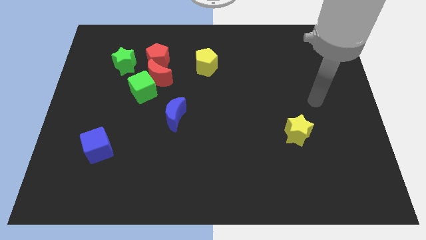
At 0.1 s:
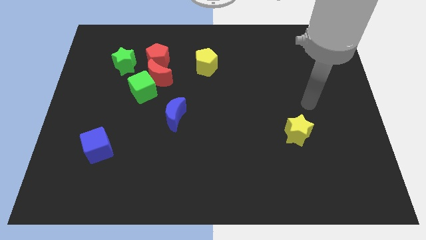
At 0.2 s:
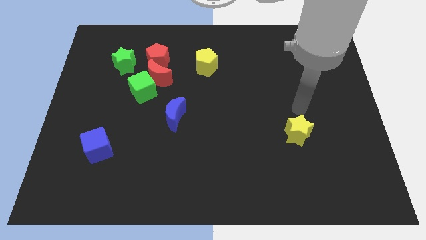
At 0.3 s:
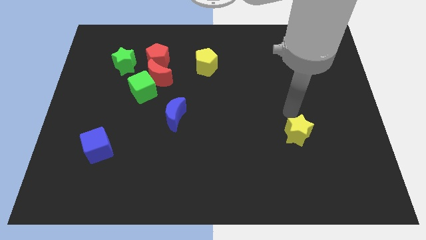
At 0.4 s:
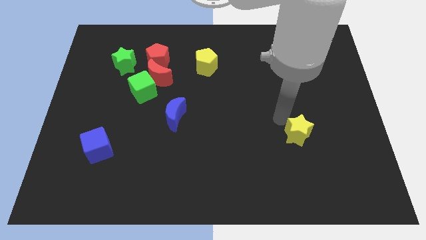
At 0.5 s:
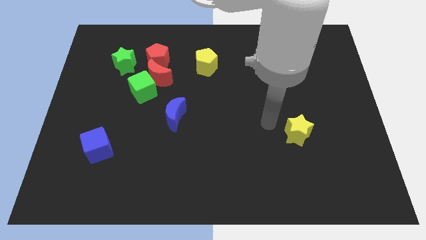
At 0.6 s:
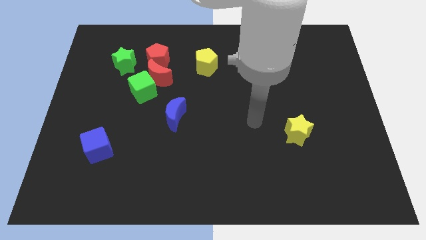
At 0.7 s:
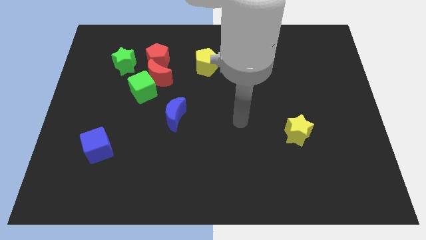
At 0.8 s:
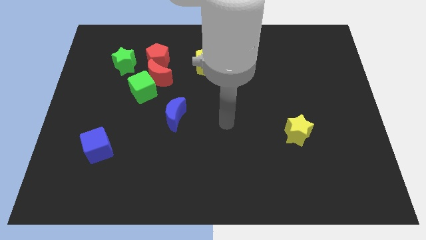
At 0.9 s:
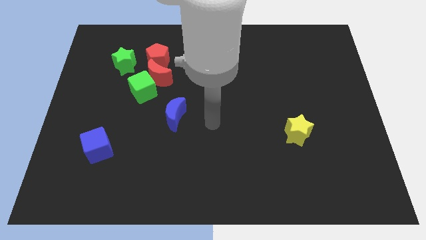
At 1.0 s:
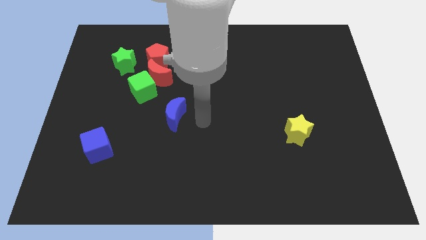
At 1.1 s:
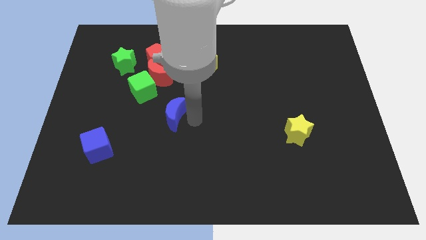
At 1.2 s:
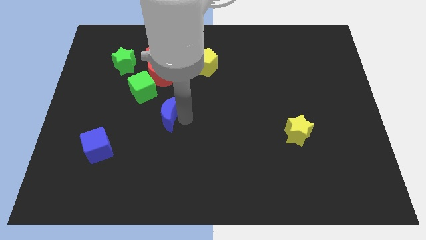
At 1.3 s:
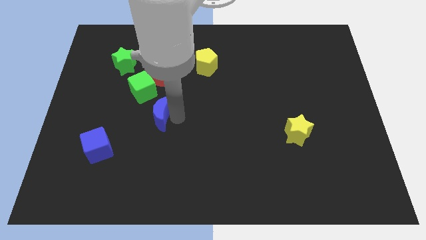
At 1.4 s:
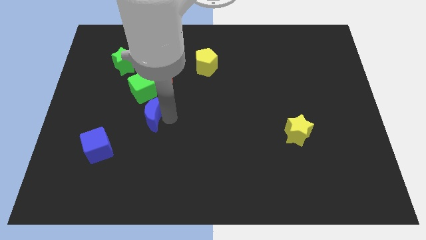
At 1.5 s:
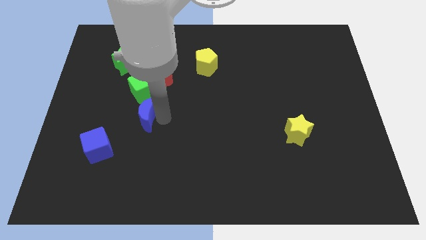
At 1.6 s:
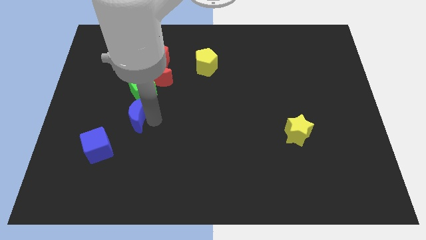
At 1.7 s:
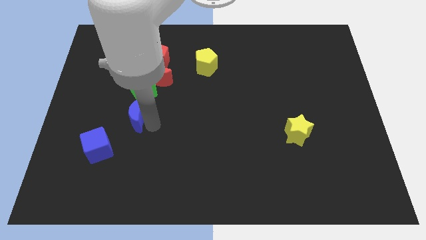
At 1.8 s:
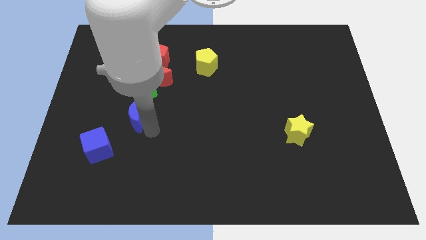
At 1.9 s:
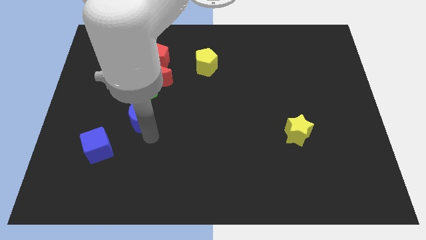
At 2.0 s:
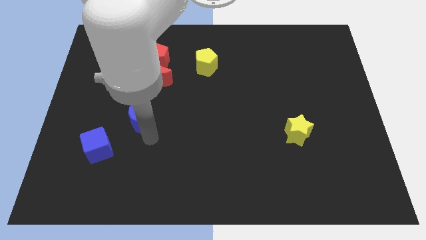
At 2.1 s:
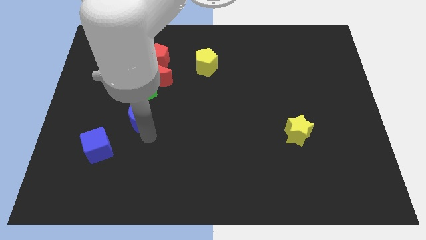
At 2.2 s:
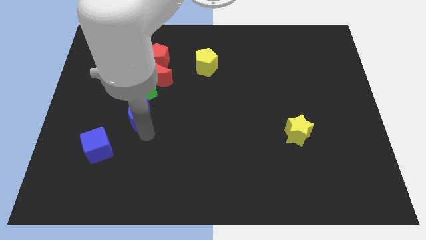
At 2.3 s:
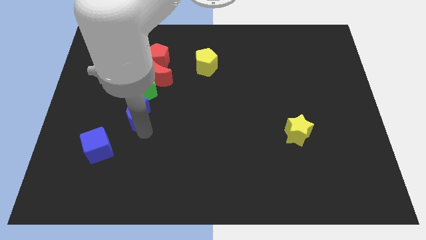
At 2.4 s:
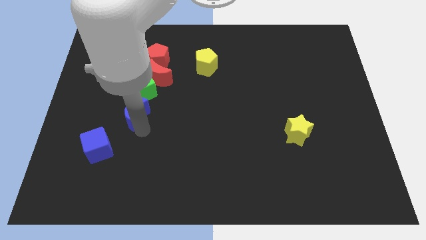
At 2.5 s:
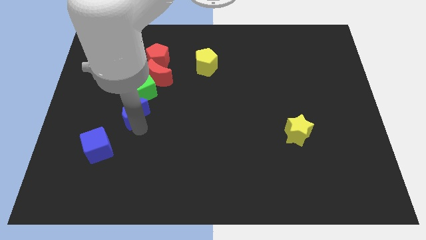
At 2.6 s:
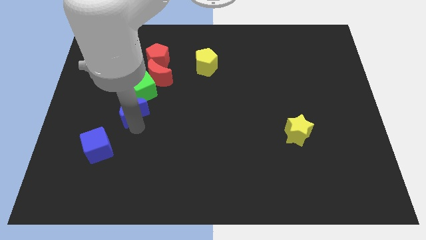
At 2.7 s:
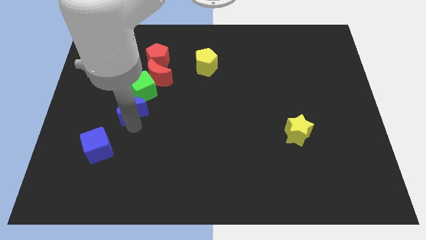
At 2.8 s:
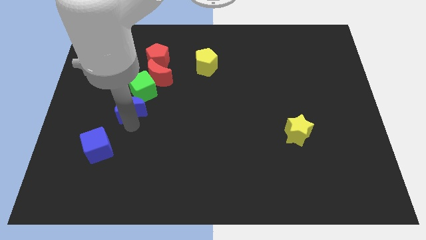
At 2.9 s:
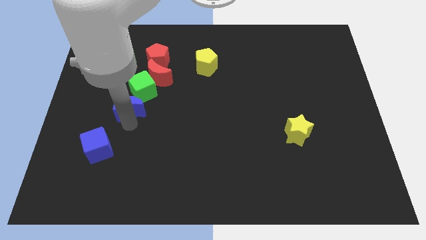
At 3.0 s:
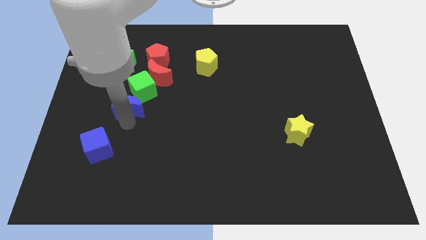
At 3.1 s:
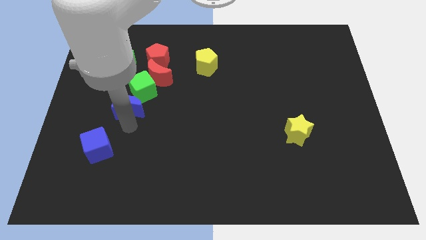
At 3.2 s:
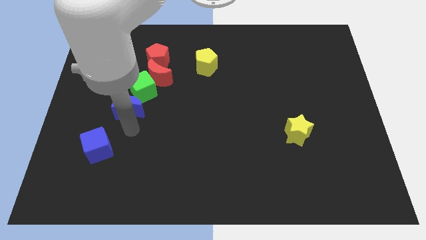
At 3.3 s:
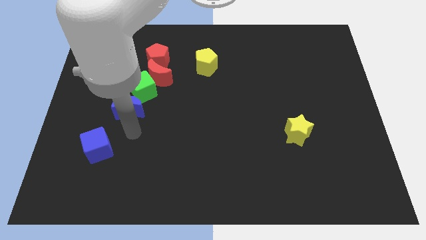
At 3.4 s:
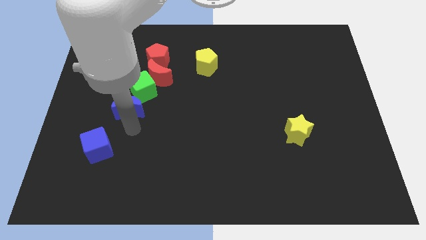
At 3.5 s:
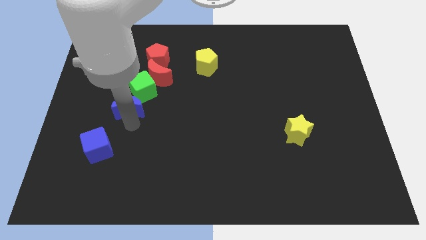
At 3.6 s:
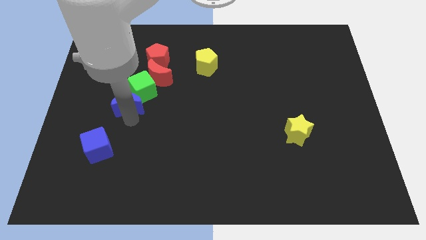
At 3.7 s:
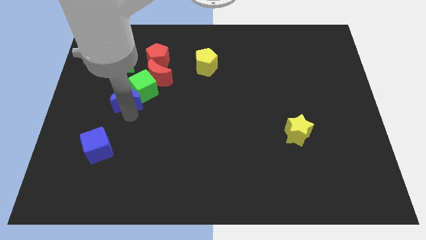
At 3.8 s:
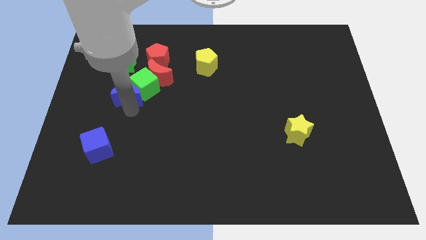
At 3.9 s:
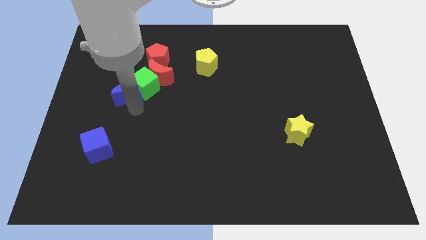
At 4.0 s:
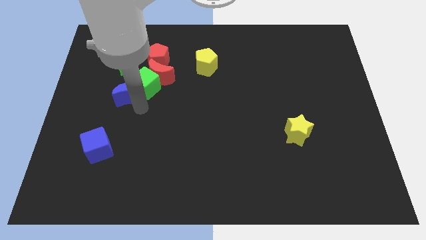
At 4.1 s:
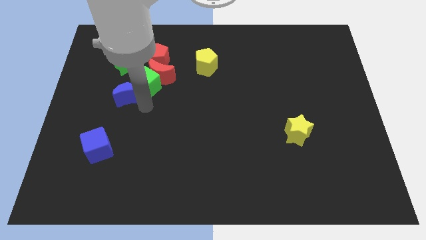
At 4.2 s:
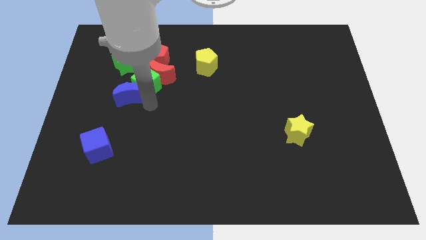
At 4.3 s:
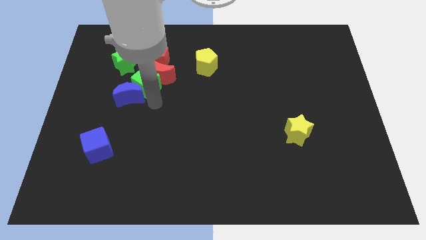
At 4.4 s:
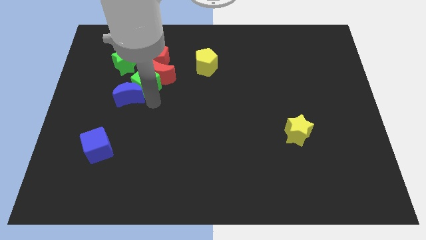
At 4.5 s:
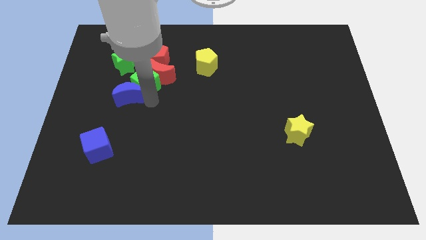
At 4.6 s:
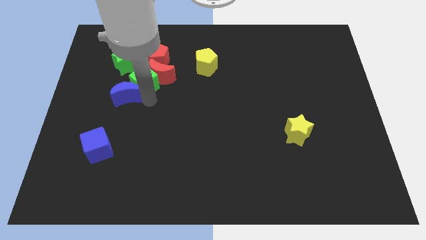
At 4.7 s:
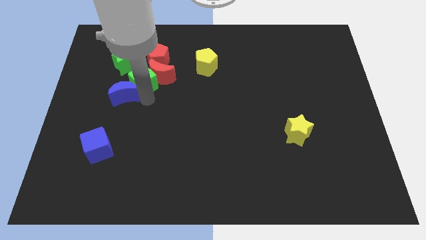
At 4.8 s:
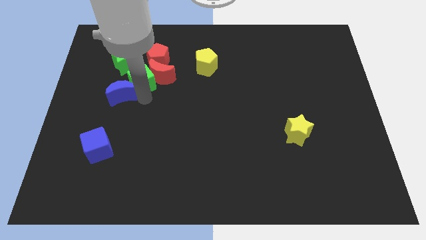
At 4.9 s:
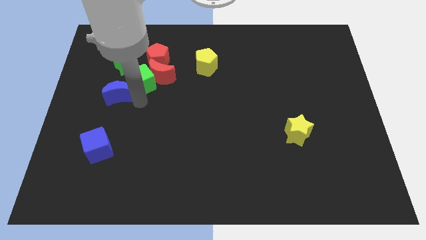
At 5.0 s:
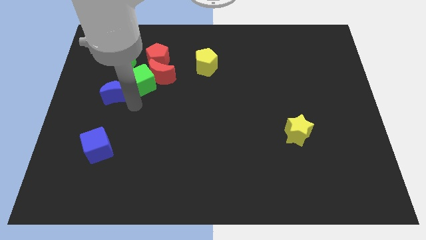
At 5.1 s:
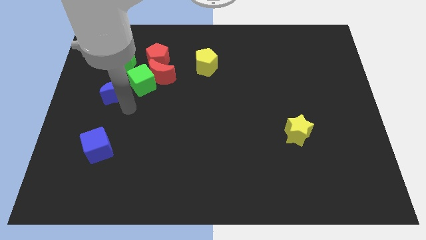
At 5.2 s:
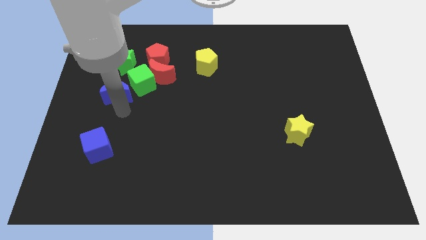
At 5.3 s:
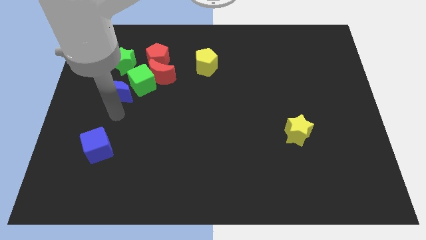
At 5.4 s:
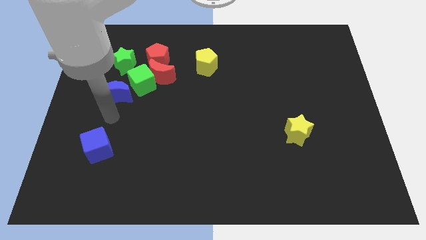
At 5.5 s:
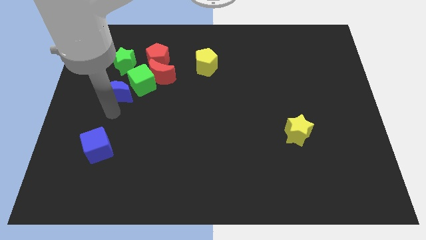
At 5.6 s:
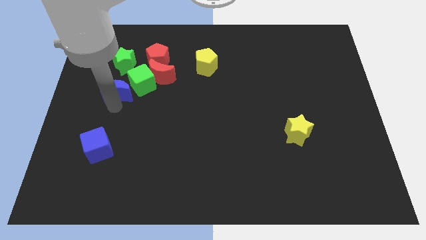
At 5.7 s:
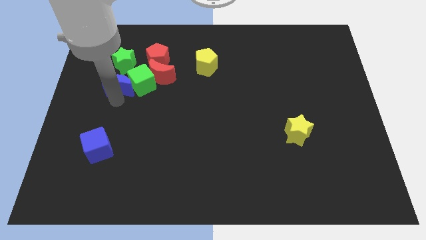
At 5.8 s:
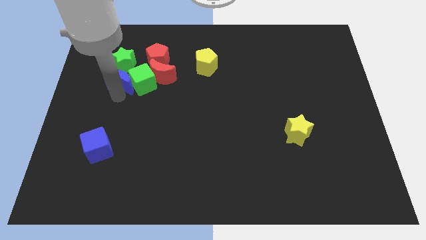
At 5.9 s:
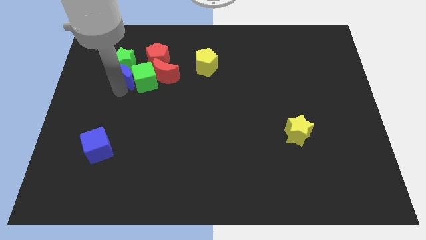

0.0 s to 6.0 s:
push the blue moon next to the green star

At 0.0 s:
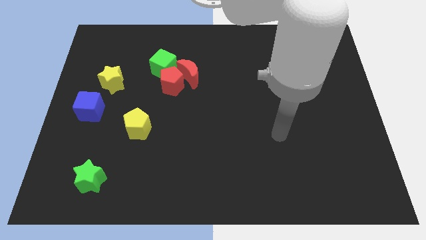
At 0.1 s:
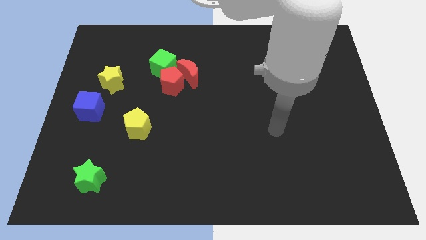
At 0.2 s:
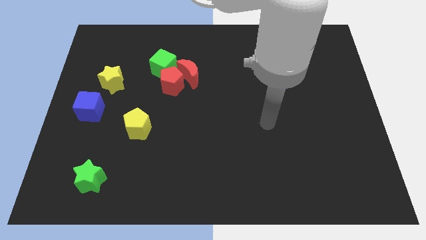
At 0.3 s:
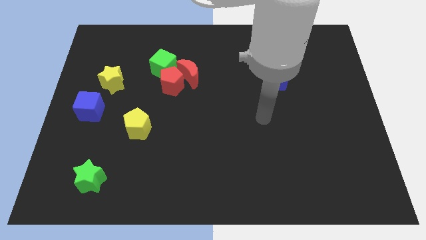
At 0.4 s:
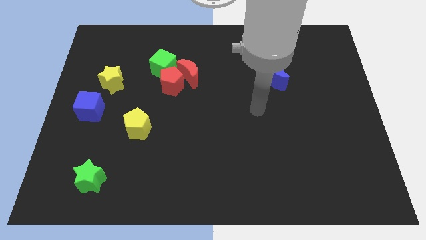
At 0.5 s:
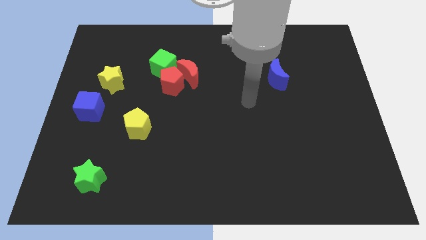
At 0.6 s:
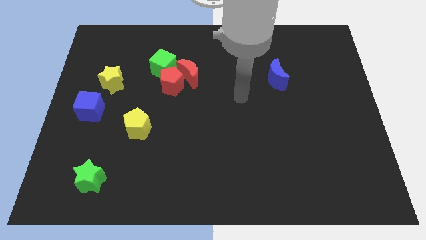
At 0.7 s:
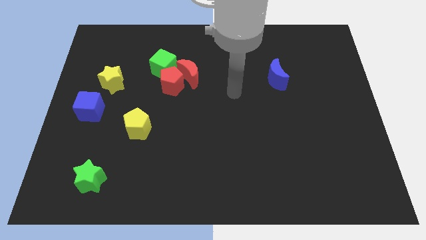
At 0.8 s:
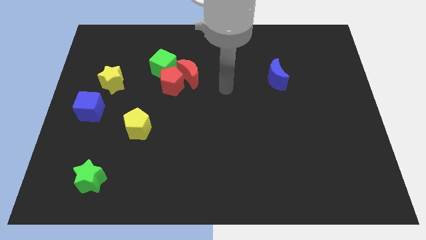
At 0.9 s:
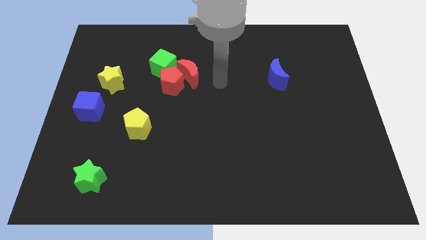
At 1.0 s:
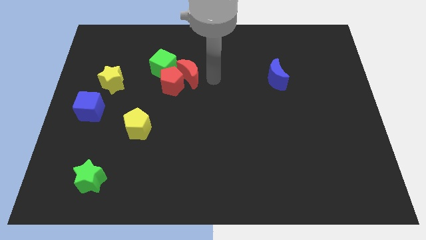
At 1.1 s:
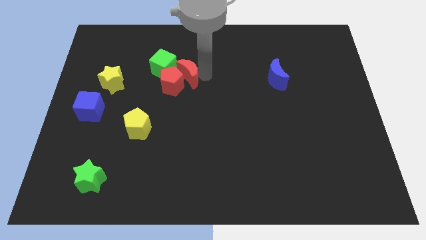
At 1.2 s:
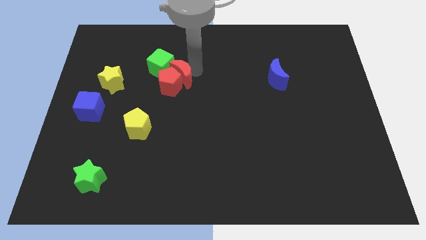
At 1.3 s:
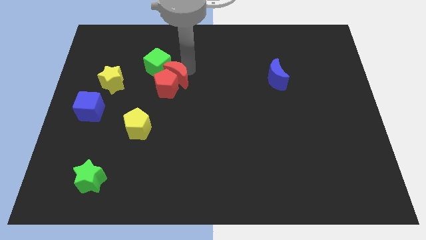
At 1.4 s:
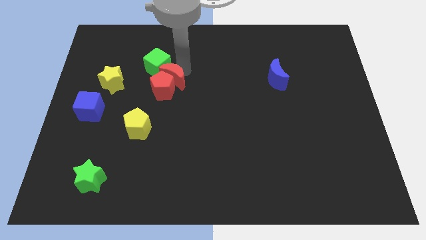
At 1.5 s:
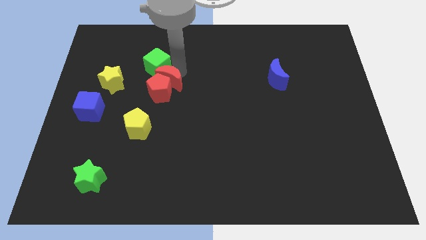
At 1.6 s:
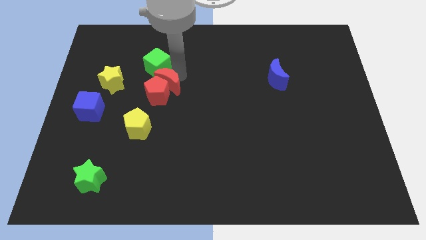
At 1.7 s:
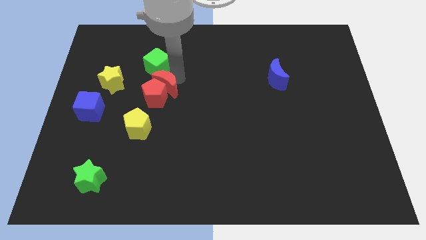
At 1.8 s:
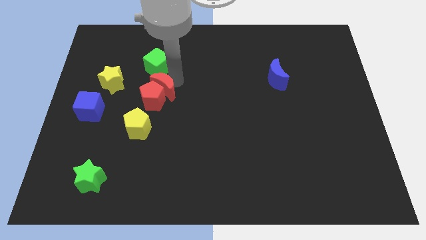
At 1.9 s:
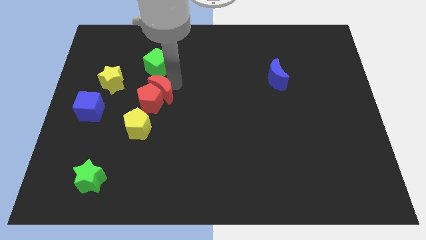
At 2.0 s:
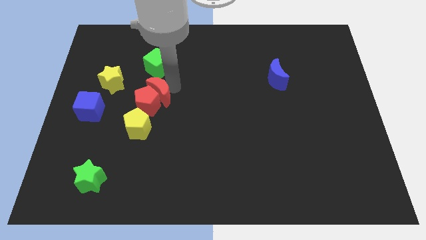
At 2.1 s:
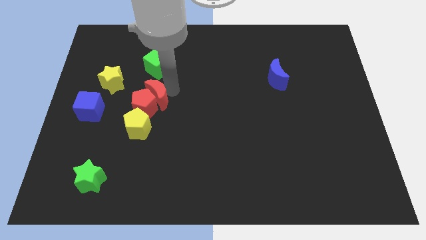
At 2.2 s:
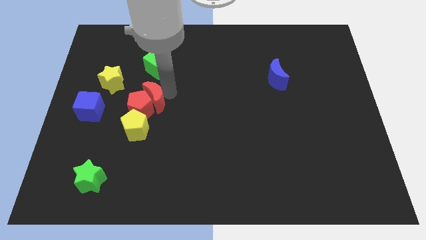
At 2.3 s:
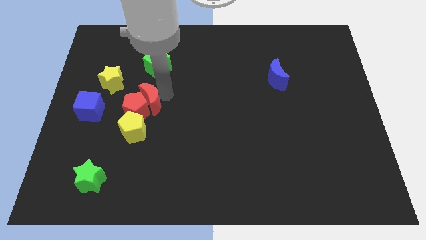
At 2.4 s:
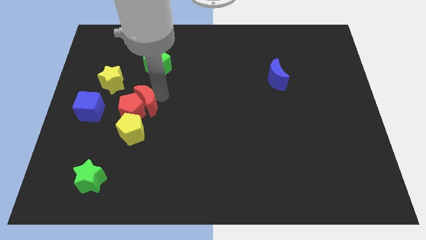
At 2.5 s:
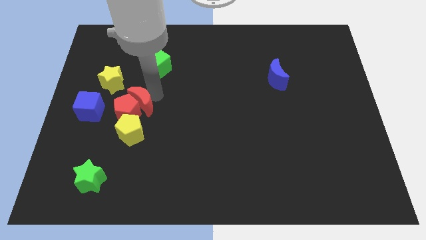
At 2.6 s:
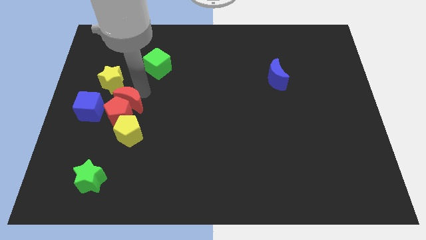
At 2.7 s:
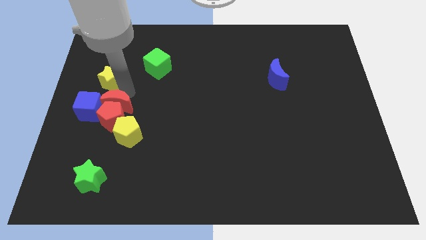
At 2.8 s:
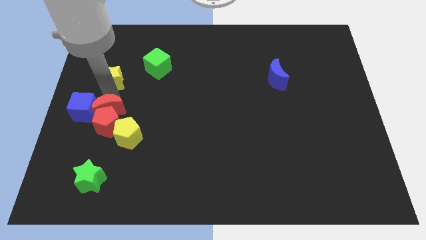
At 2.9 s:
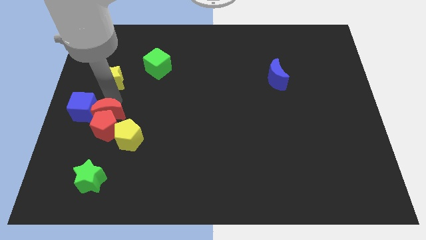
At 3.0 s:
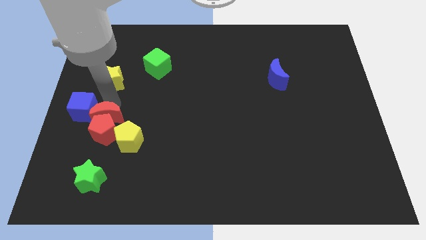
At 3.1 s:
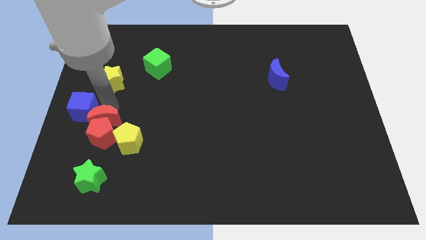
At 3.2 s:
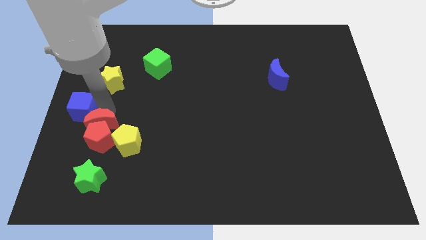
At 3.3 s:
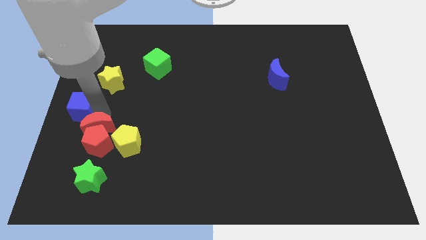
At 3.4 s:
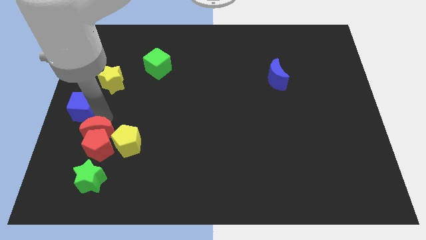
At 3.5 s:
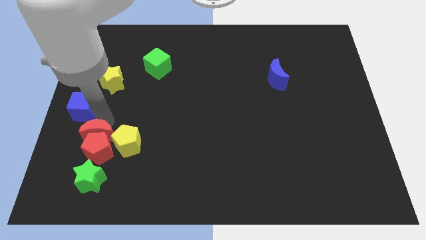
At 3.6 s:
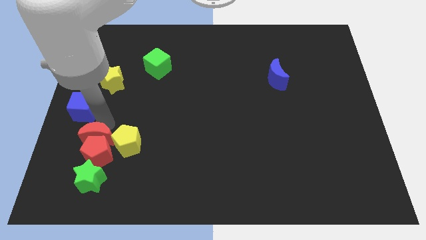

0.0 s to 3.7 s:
put the red pentagon next to the green star
